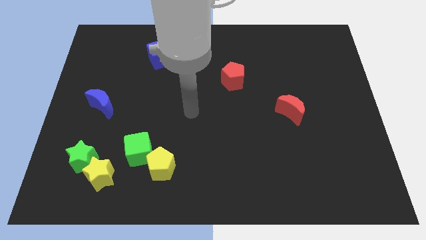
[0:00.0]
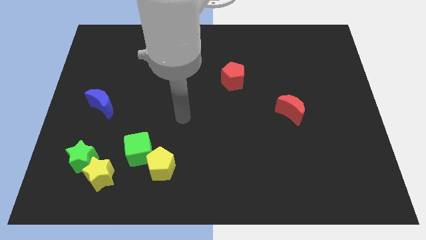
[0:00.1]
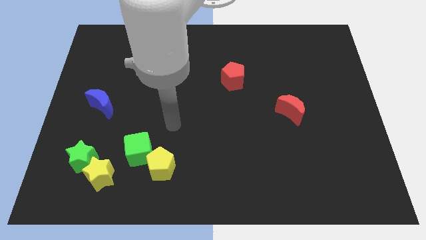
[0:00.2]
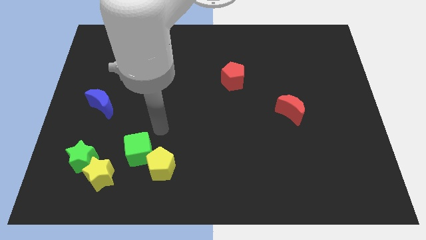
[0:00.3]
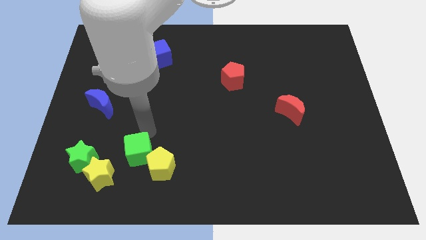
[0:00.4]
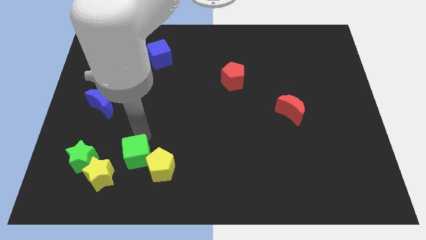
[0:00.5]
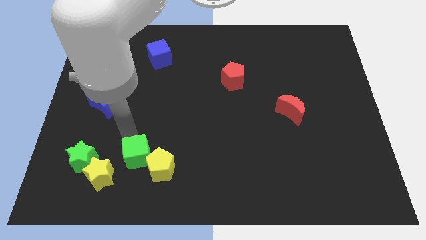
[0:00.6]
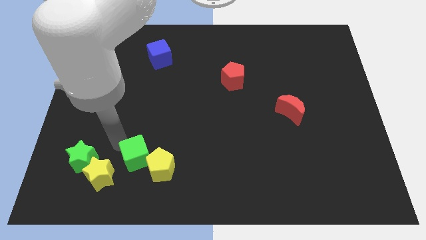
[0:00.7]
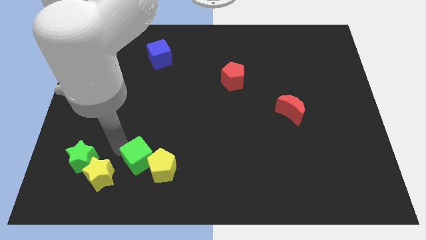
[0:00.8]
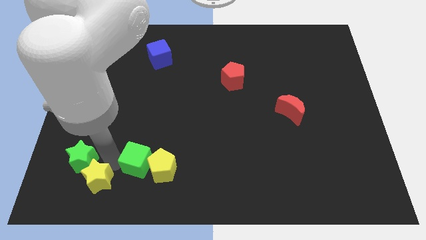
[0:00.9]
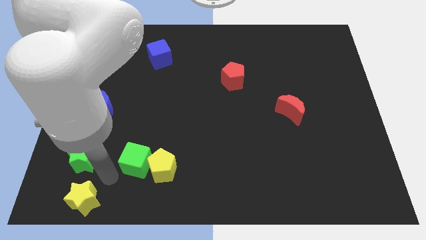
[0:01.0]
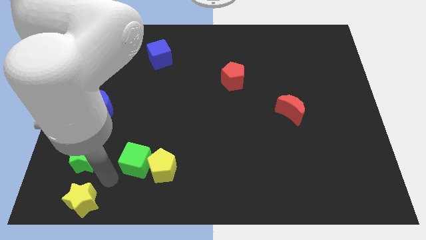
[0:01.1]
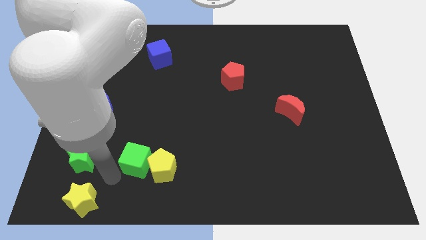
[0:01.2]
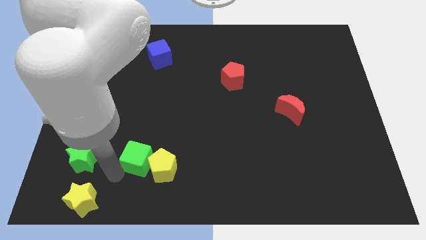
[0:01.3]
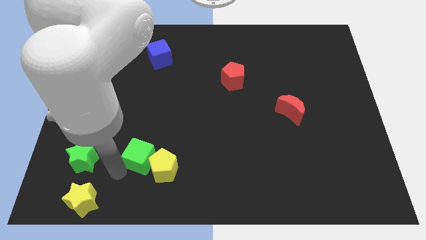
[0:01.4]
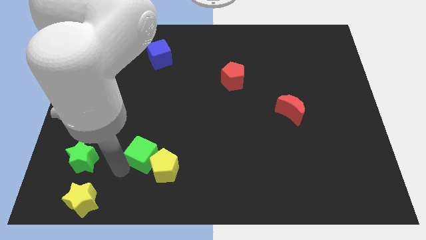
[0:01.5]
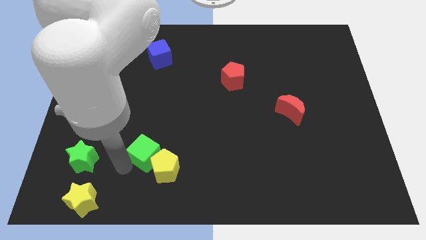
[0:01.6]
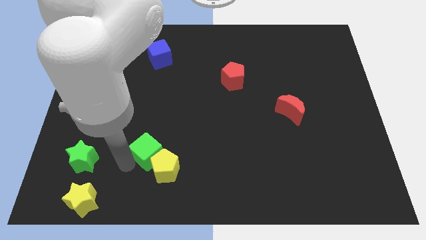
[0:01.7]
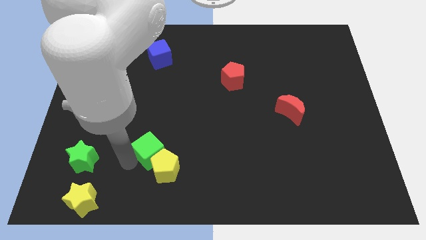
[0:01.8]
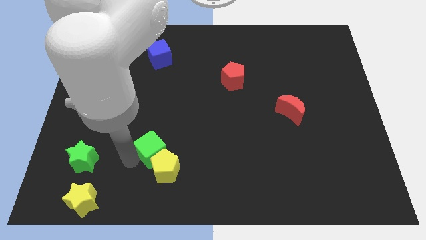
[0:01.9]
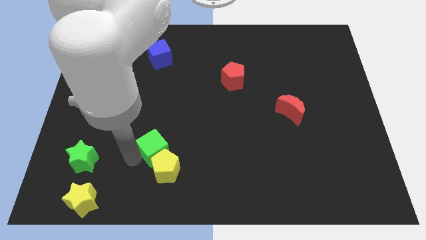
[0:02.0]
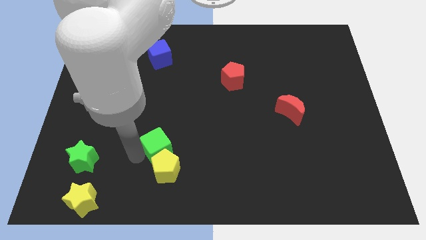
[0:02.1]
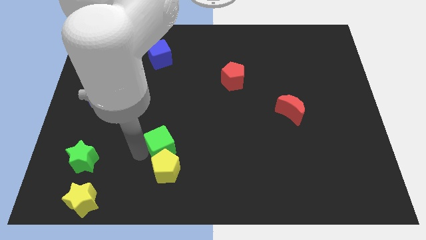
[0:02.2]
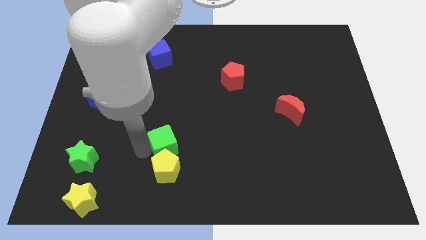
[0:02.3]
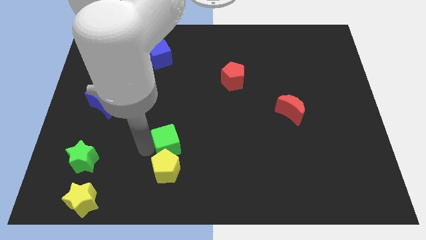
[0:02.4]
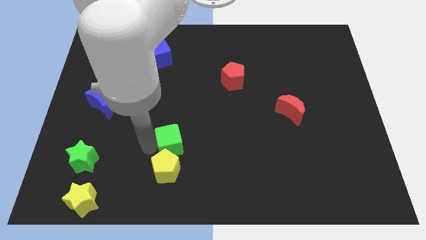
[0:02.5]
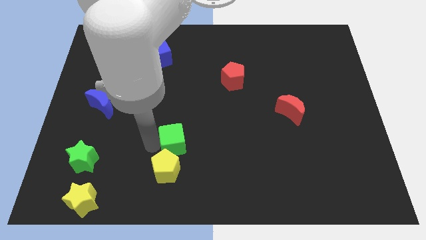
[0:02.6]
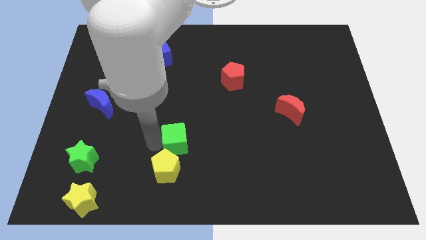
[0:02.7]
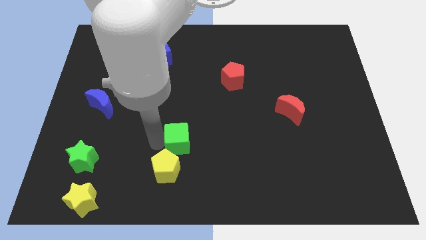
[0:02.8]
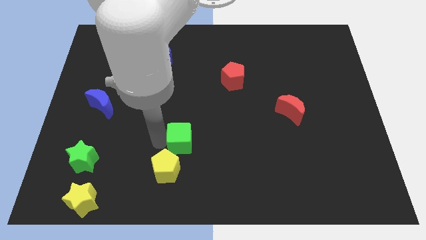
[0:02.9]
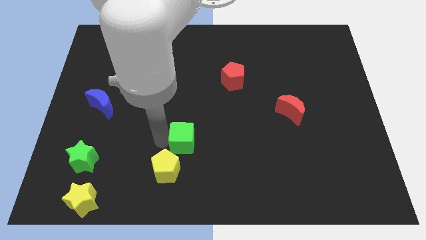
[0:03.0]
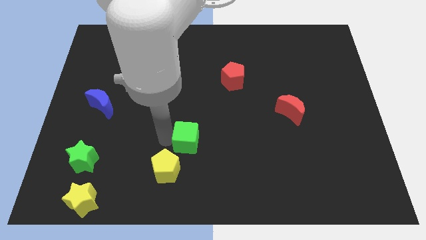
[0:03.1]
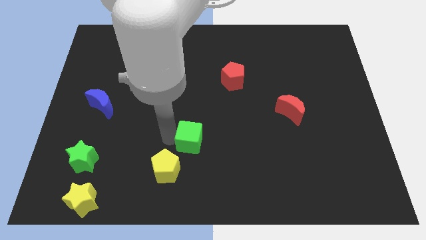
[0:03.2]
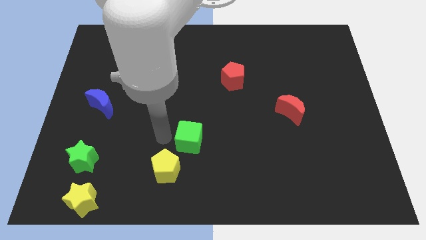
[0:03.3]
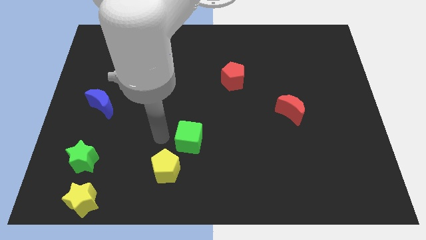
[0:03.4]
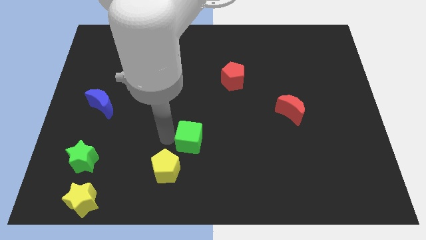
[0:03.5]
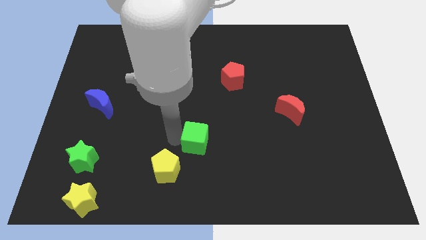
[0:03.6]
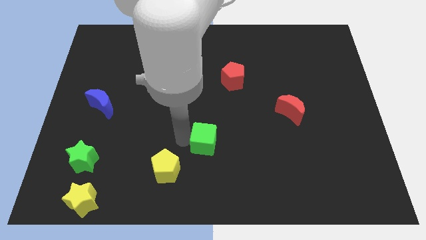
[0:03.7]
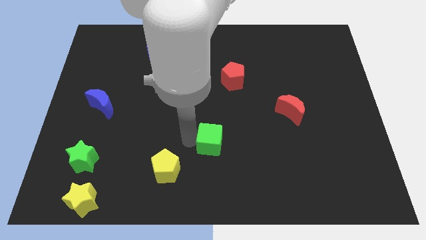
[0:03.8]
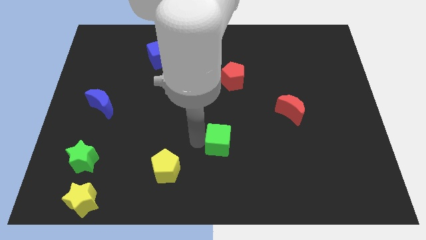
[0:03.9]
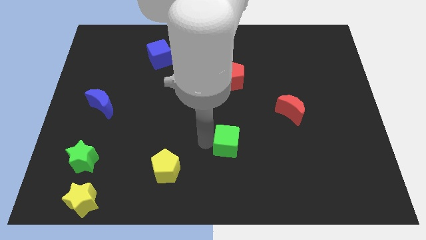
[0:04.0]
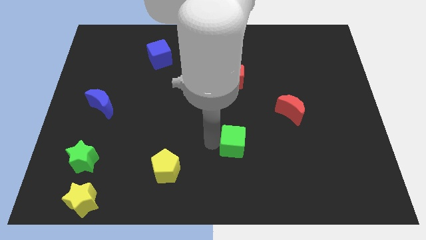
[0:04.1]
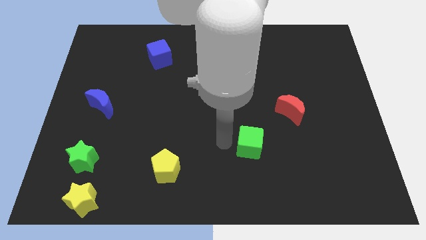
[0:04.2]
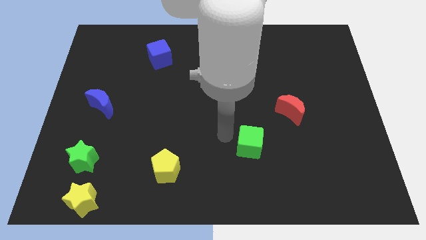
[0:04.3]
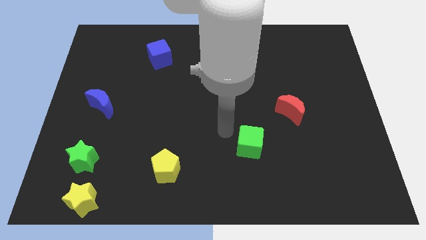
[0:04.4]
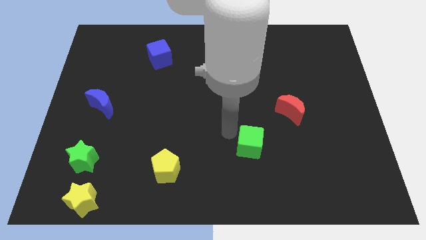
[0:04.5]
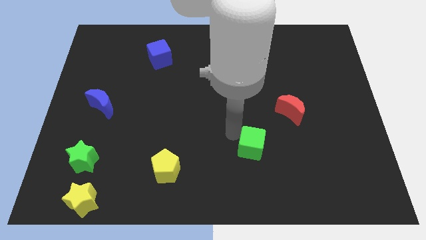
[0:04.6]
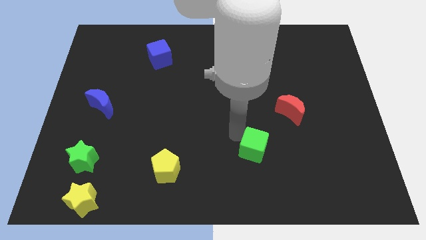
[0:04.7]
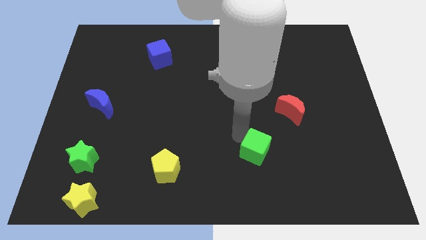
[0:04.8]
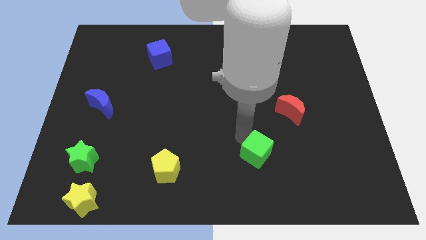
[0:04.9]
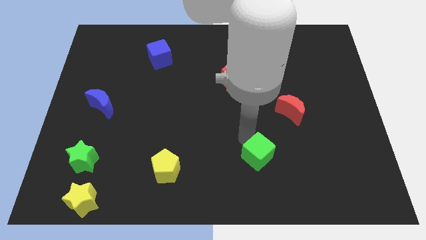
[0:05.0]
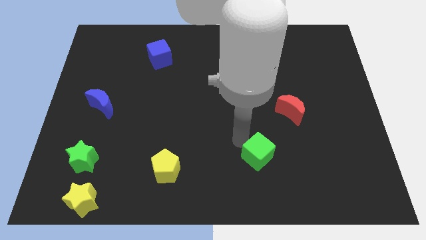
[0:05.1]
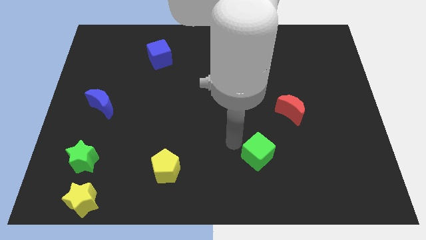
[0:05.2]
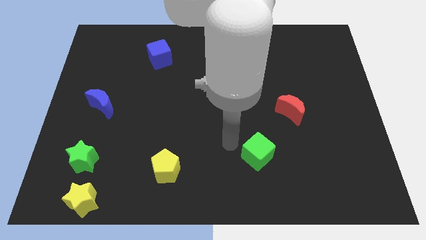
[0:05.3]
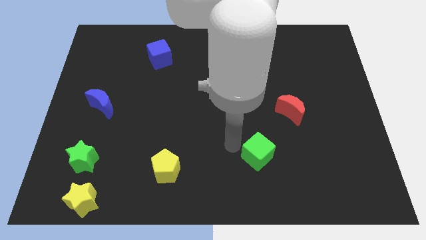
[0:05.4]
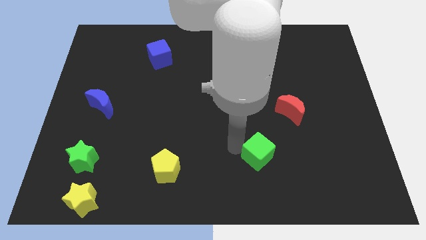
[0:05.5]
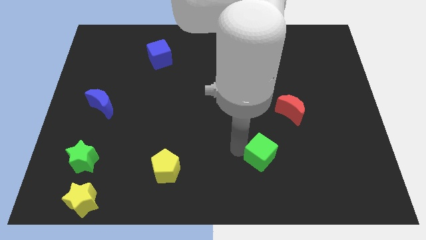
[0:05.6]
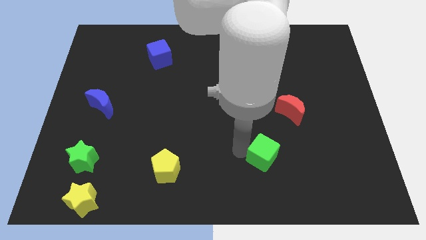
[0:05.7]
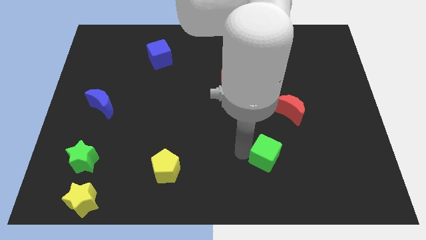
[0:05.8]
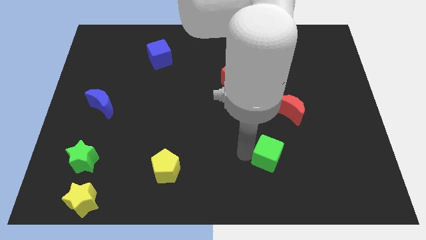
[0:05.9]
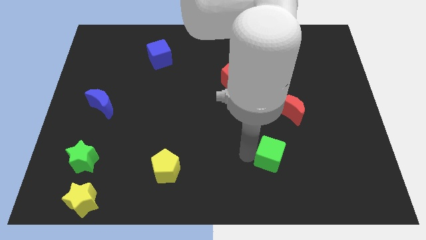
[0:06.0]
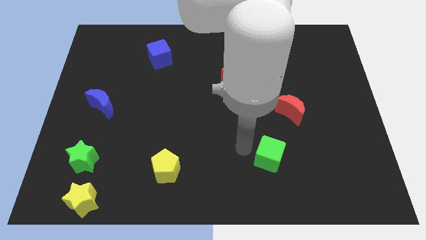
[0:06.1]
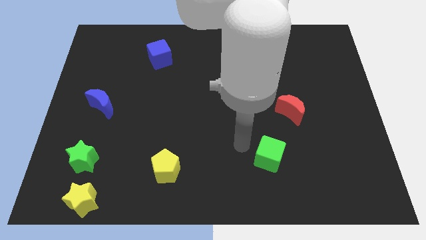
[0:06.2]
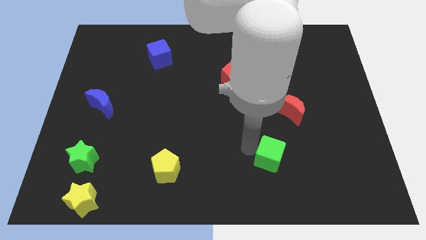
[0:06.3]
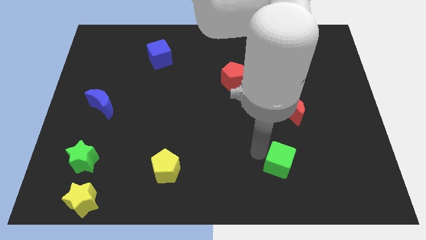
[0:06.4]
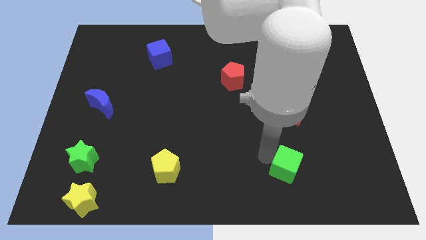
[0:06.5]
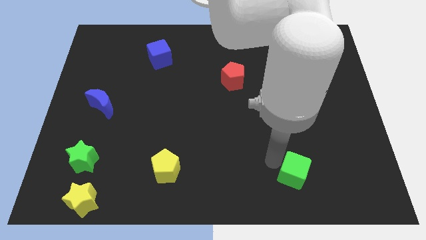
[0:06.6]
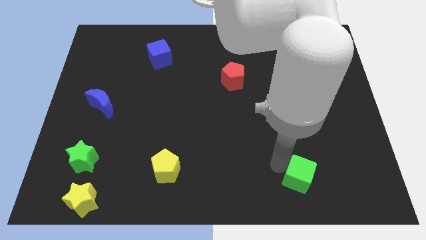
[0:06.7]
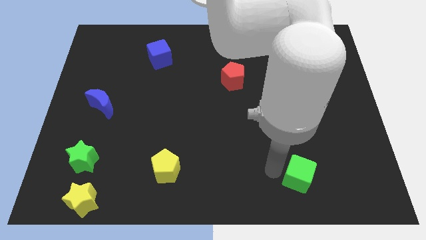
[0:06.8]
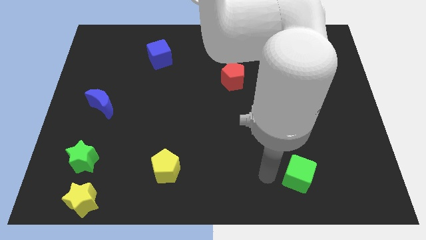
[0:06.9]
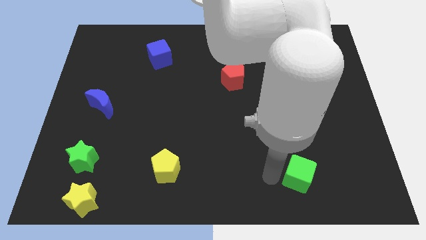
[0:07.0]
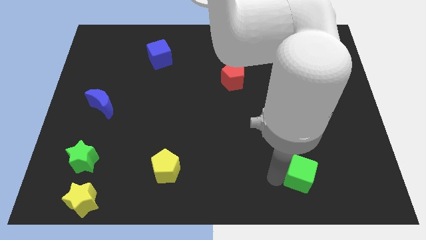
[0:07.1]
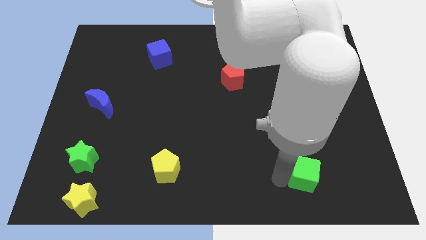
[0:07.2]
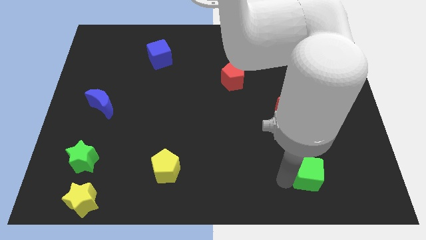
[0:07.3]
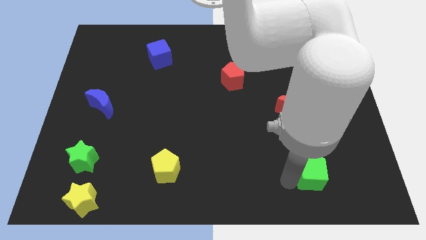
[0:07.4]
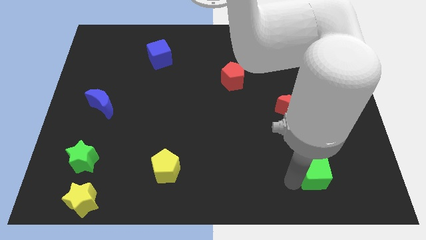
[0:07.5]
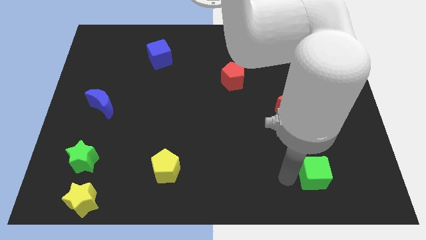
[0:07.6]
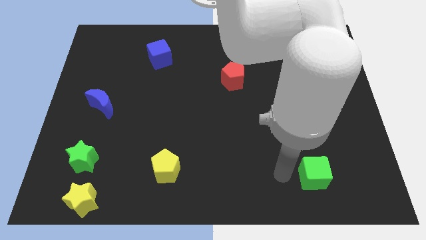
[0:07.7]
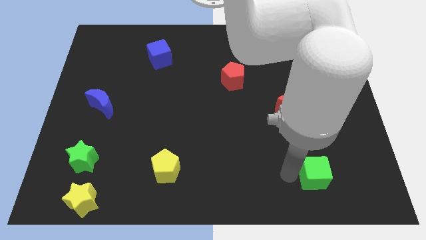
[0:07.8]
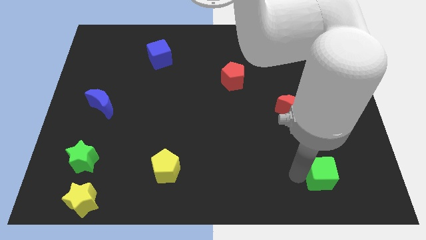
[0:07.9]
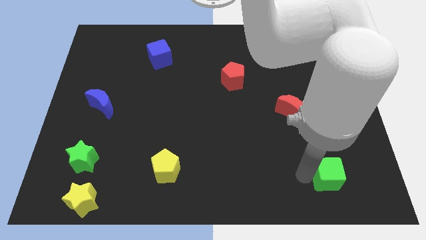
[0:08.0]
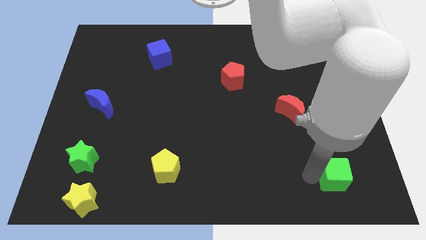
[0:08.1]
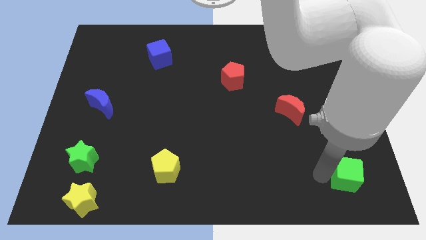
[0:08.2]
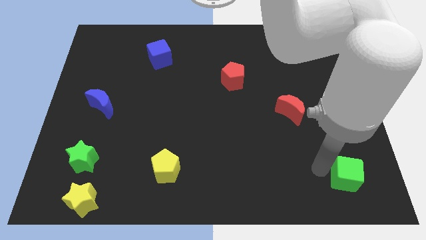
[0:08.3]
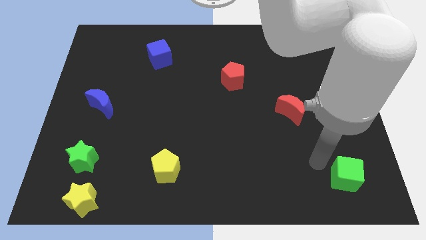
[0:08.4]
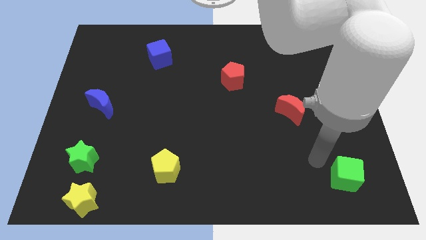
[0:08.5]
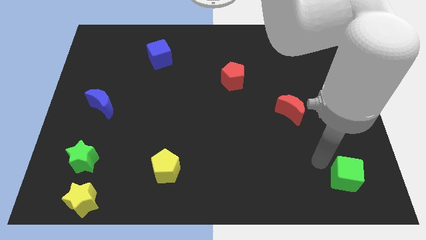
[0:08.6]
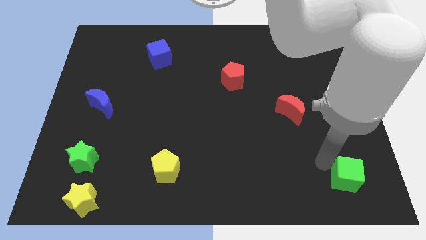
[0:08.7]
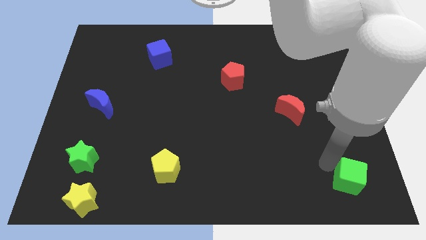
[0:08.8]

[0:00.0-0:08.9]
slide the green cube to the lower right corner
